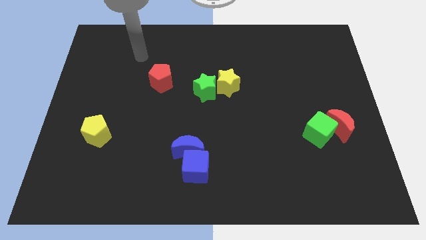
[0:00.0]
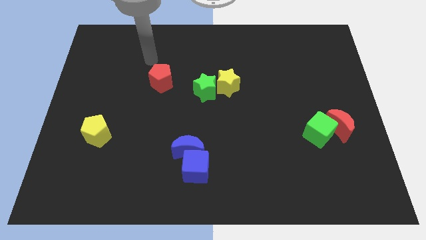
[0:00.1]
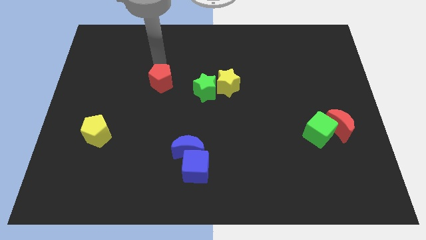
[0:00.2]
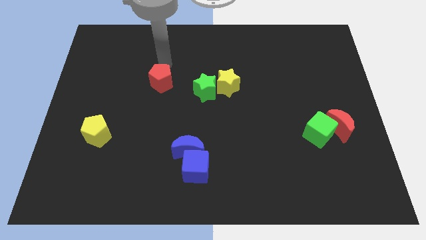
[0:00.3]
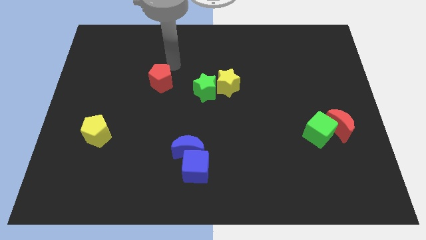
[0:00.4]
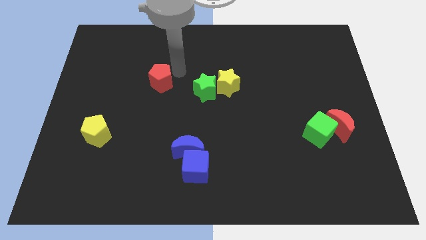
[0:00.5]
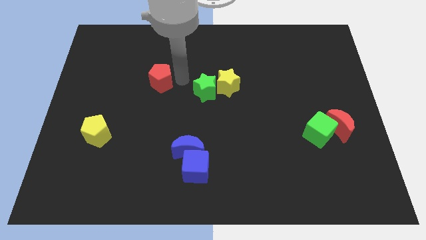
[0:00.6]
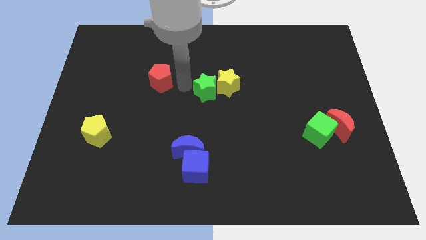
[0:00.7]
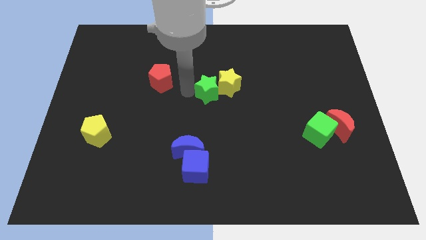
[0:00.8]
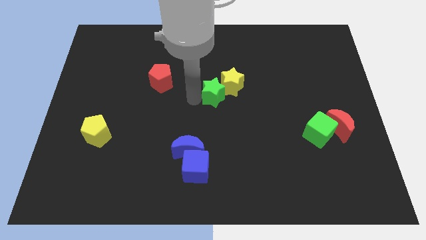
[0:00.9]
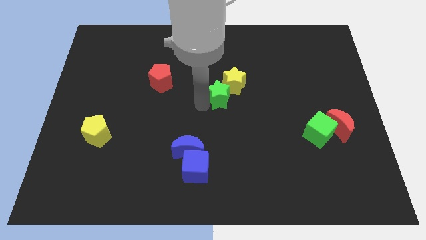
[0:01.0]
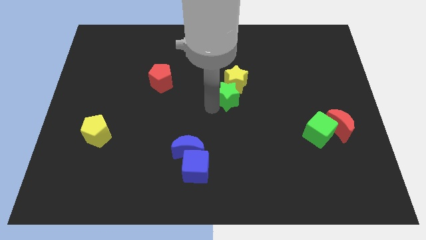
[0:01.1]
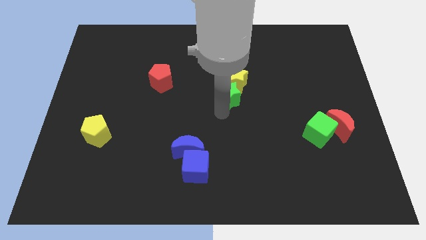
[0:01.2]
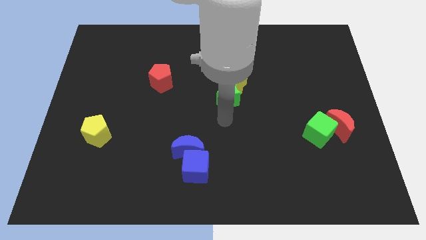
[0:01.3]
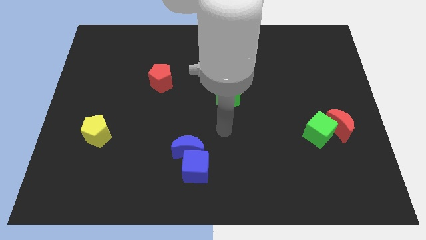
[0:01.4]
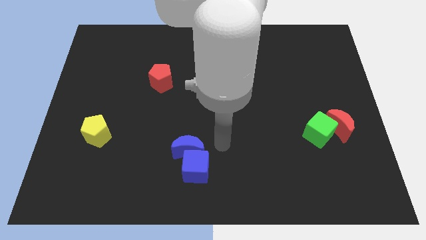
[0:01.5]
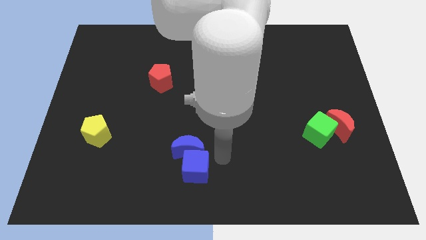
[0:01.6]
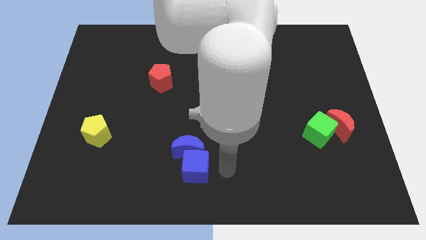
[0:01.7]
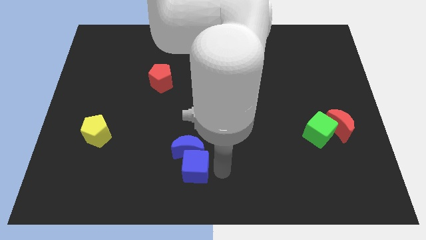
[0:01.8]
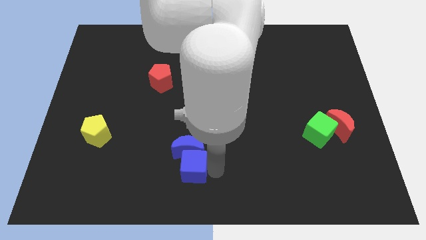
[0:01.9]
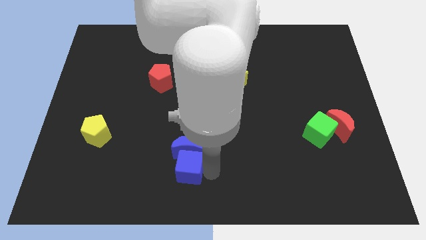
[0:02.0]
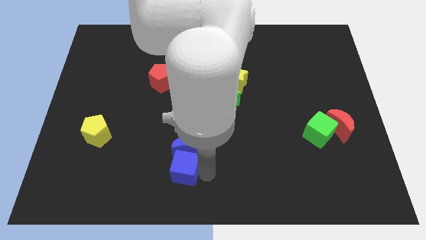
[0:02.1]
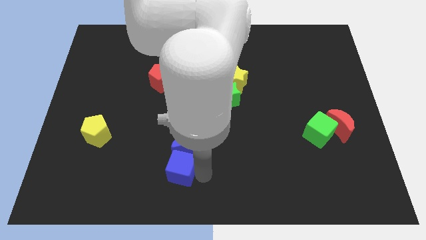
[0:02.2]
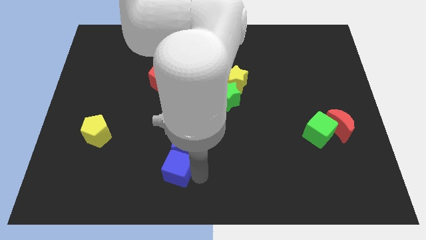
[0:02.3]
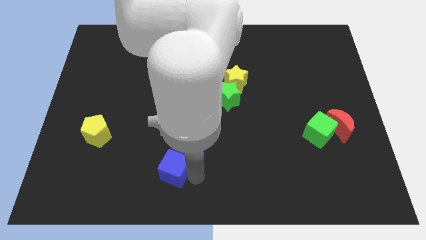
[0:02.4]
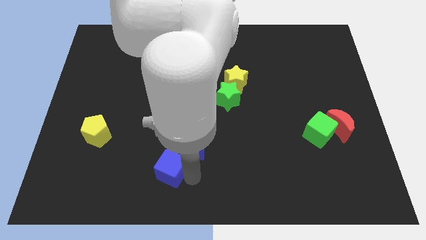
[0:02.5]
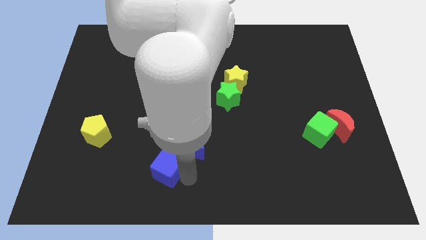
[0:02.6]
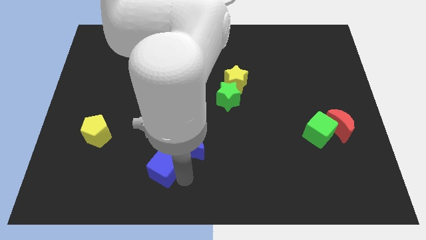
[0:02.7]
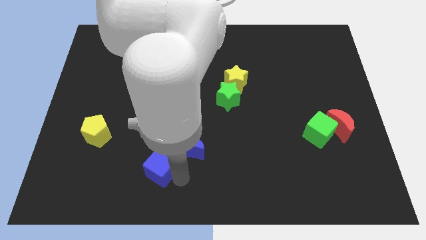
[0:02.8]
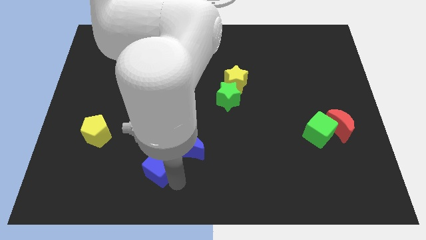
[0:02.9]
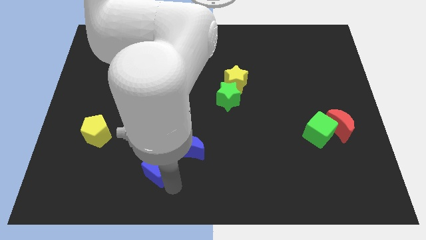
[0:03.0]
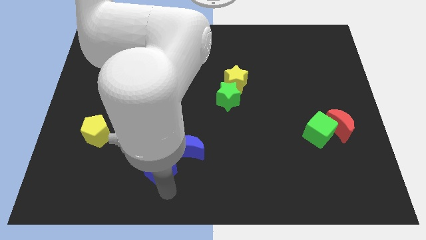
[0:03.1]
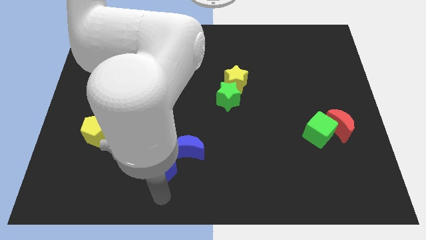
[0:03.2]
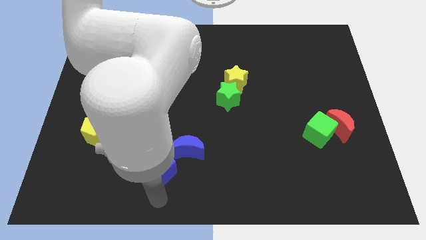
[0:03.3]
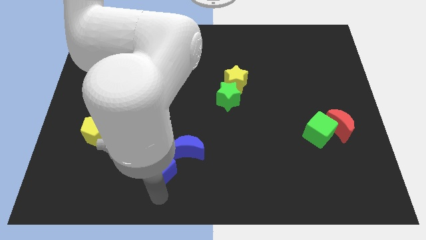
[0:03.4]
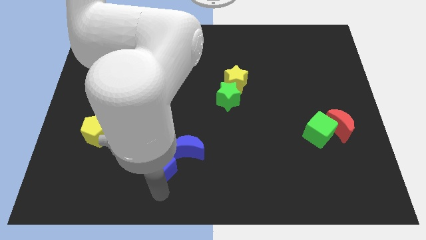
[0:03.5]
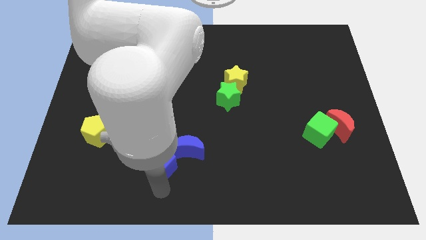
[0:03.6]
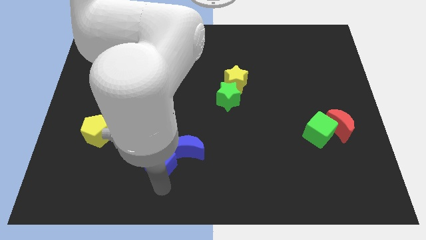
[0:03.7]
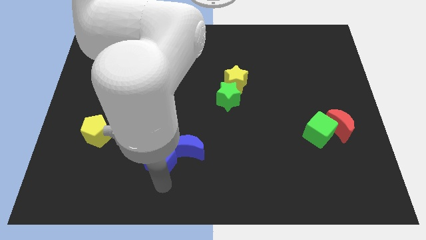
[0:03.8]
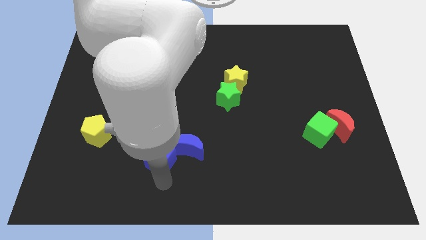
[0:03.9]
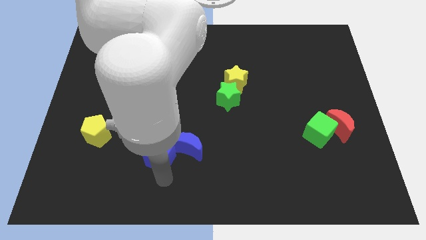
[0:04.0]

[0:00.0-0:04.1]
push the blue cube a bit diagonally upwards and to the left

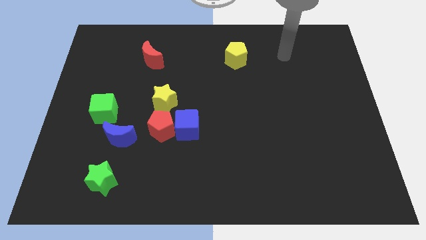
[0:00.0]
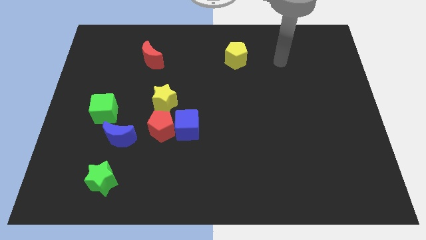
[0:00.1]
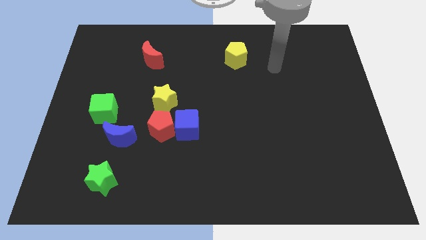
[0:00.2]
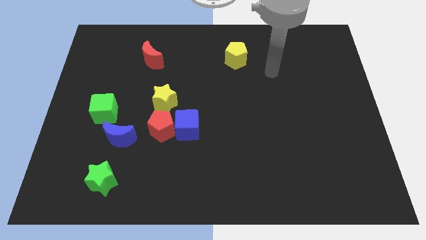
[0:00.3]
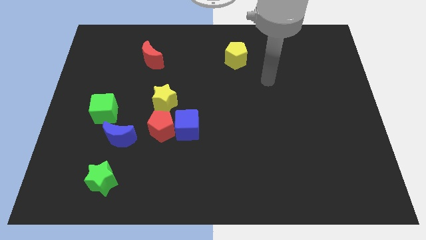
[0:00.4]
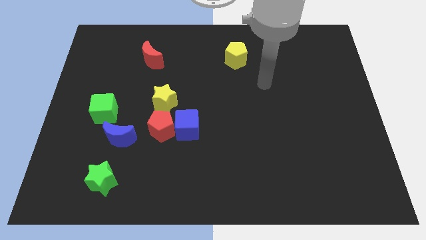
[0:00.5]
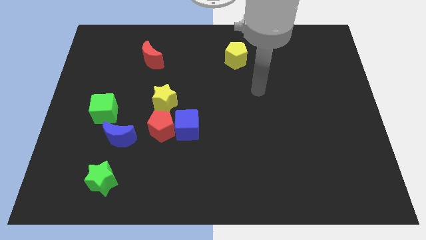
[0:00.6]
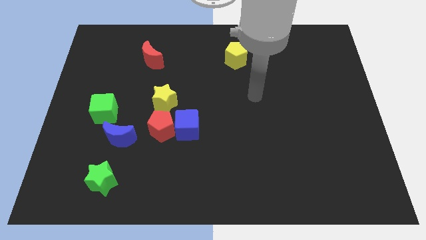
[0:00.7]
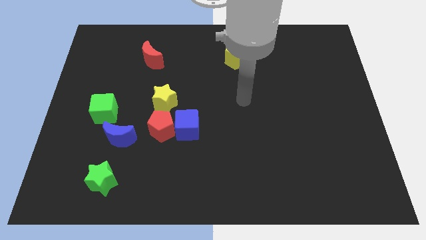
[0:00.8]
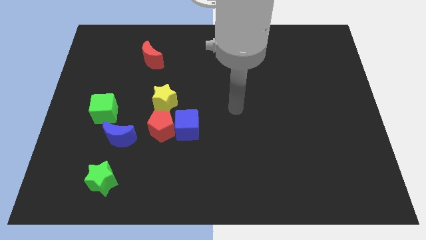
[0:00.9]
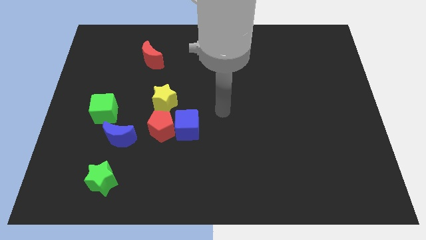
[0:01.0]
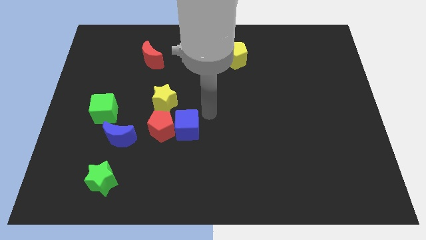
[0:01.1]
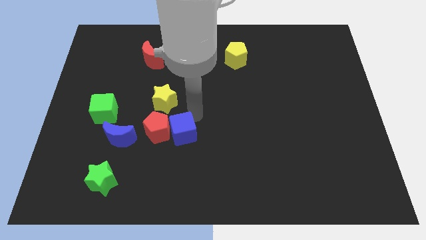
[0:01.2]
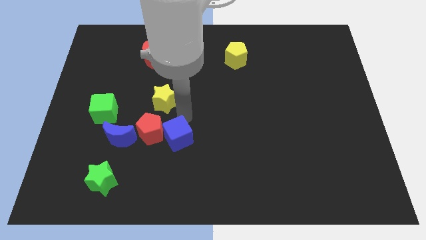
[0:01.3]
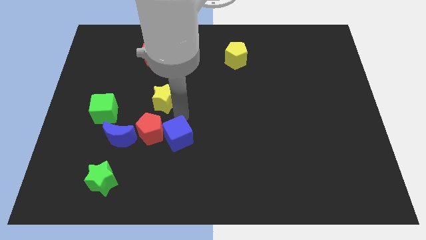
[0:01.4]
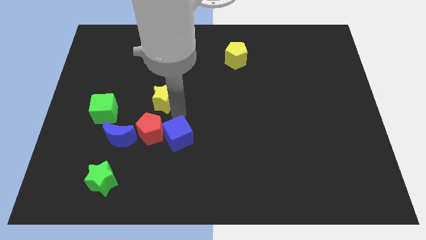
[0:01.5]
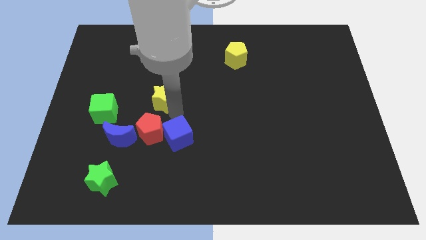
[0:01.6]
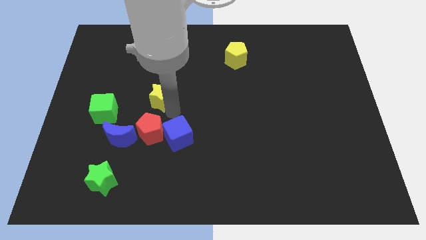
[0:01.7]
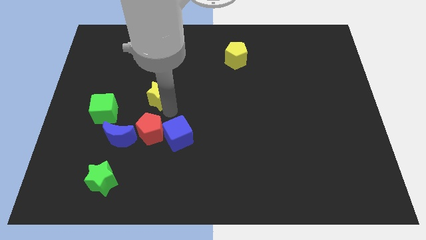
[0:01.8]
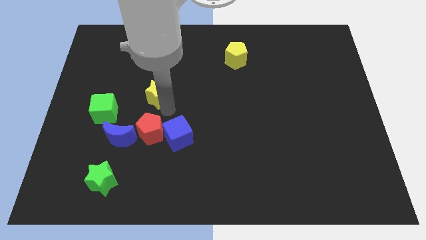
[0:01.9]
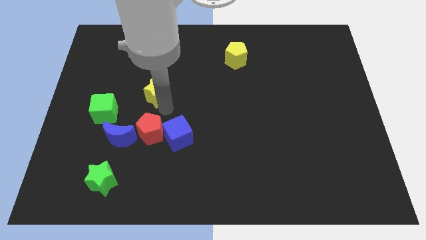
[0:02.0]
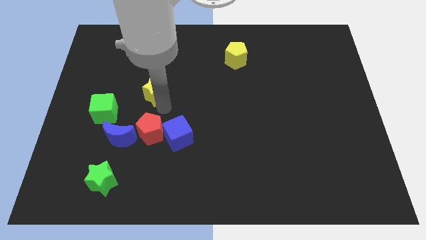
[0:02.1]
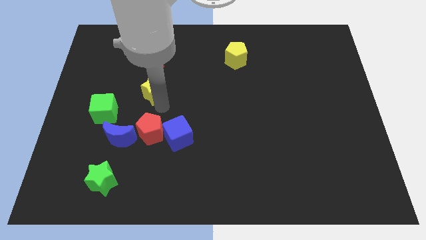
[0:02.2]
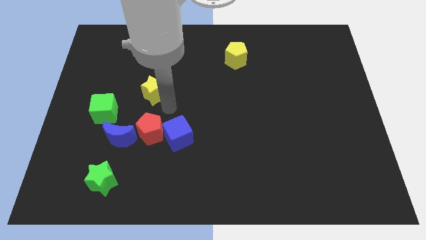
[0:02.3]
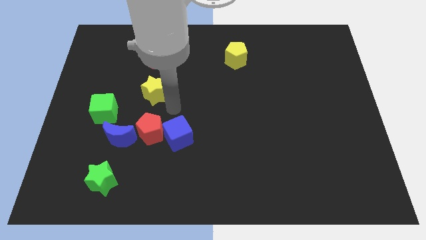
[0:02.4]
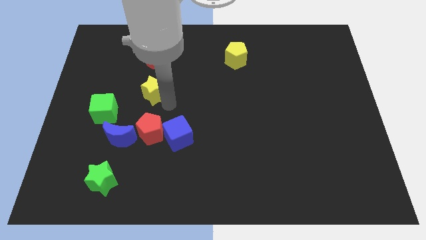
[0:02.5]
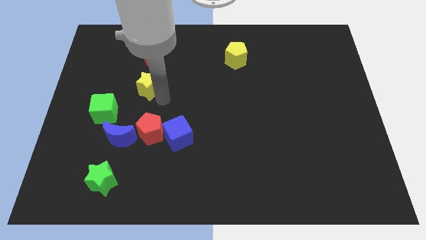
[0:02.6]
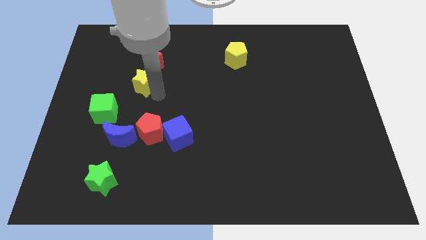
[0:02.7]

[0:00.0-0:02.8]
move the yellow star somewhat diagonally up and to the left

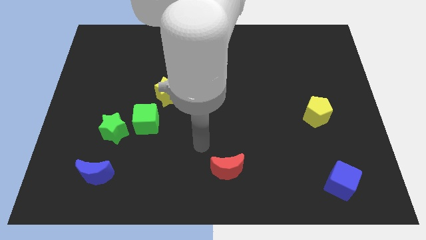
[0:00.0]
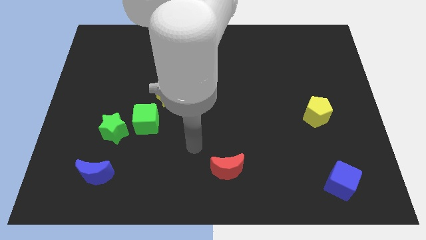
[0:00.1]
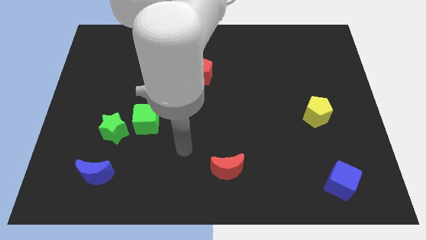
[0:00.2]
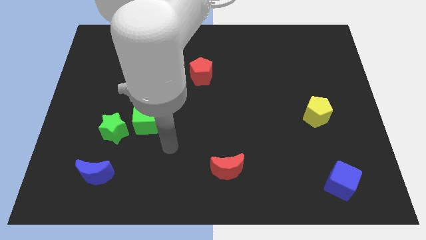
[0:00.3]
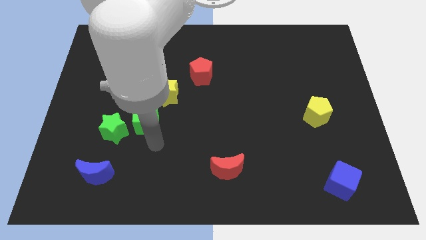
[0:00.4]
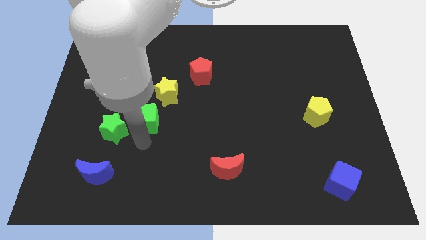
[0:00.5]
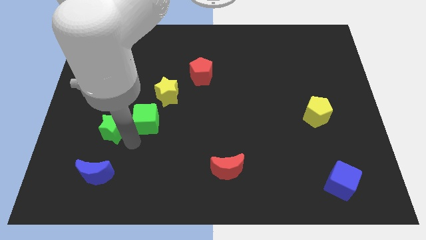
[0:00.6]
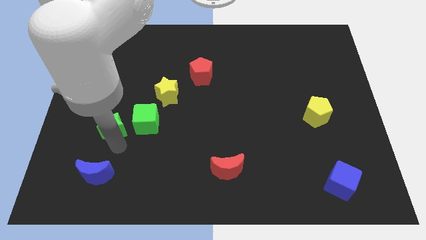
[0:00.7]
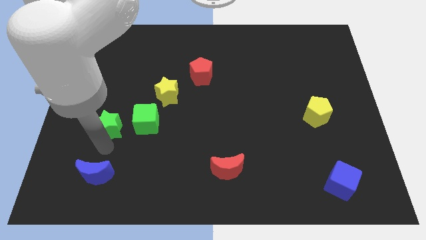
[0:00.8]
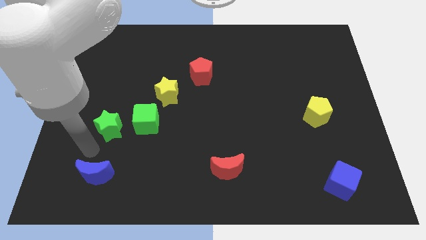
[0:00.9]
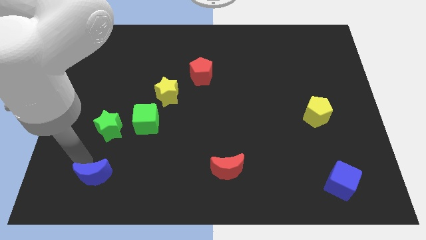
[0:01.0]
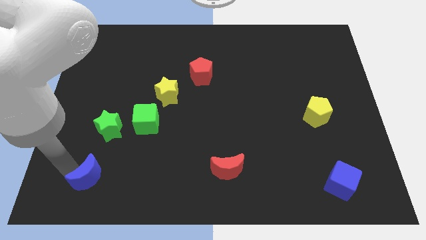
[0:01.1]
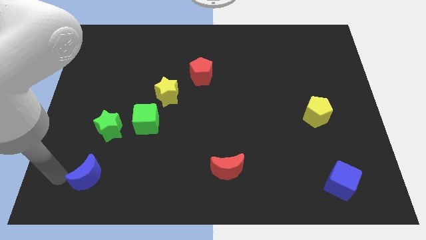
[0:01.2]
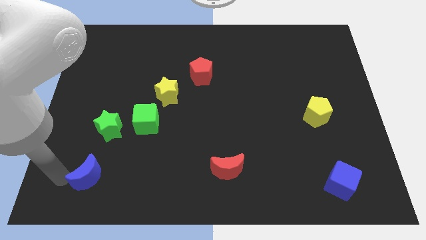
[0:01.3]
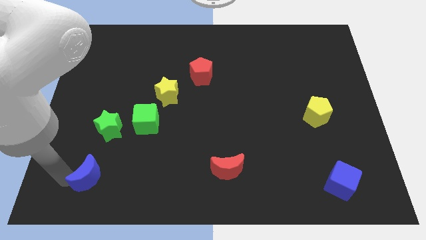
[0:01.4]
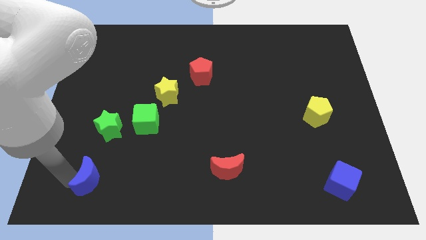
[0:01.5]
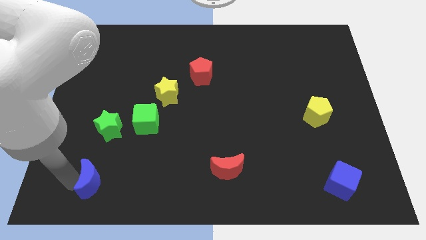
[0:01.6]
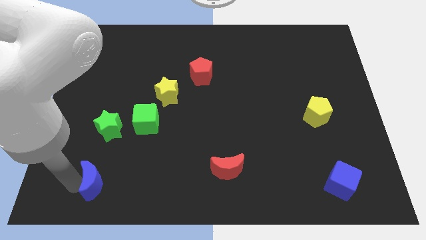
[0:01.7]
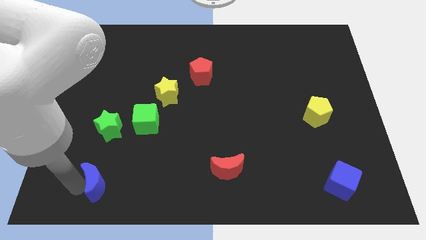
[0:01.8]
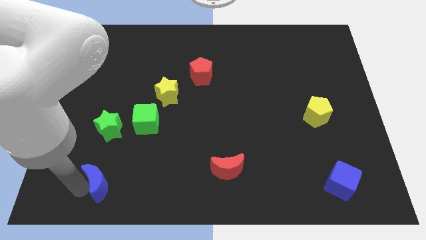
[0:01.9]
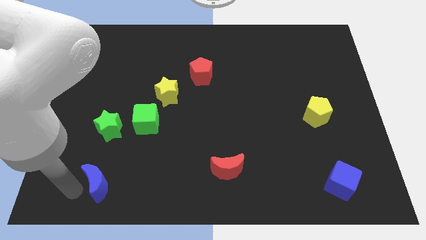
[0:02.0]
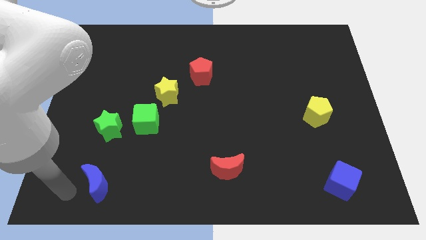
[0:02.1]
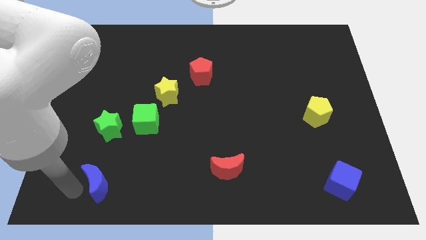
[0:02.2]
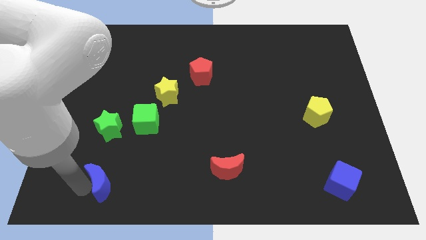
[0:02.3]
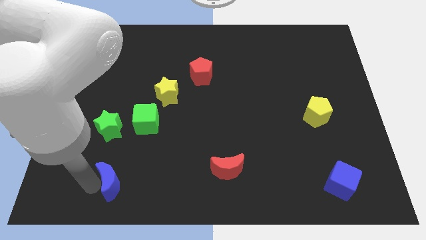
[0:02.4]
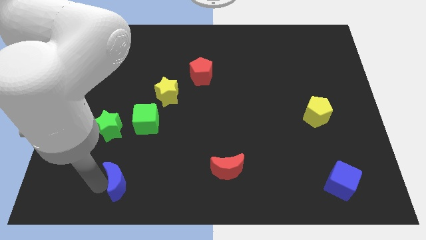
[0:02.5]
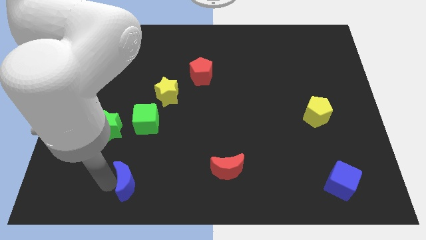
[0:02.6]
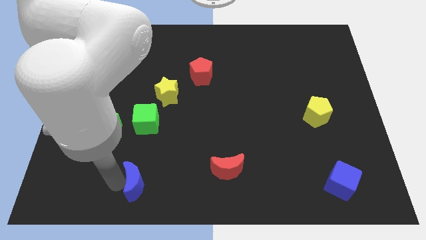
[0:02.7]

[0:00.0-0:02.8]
push the blue moon a little to the right
